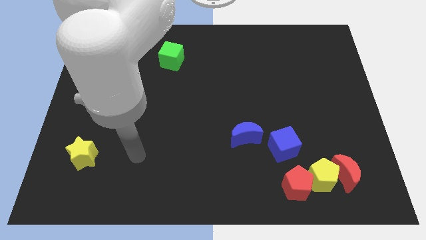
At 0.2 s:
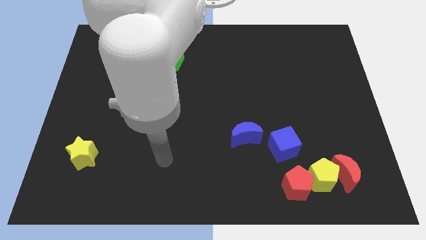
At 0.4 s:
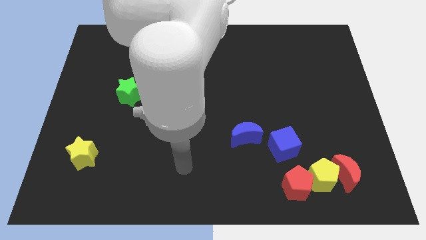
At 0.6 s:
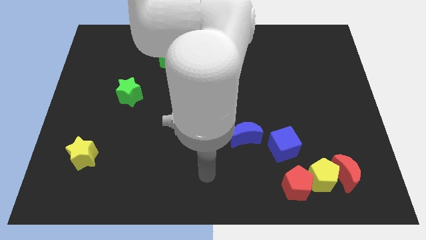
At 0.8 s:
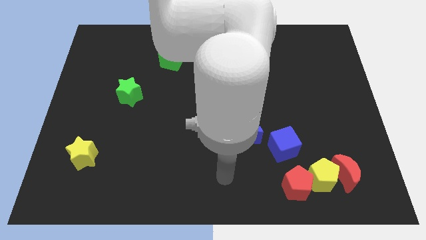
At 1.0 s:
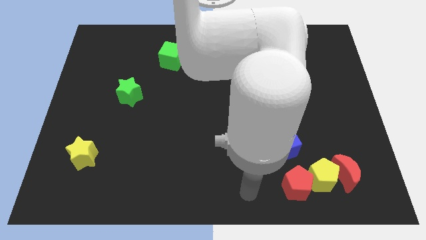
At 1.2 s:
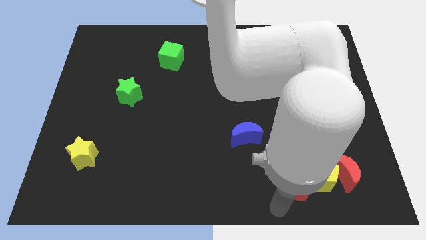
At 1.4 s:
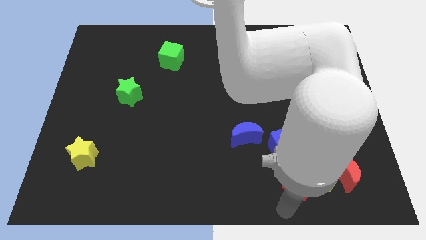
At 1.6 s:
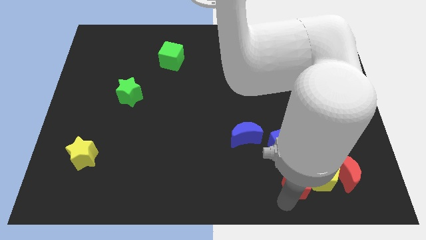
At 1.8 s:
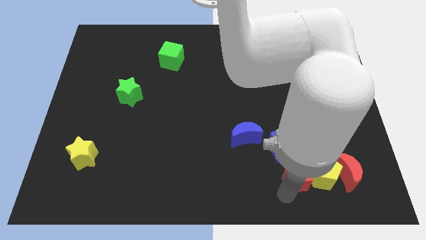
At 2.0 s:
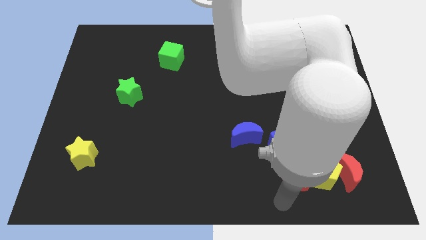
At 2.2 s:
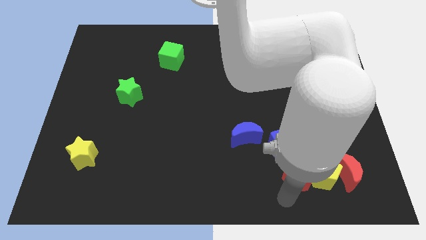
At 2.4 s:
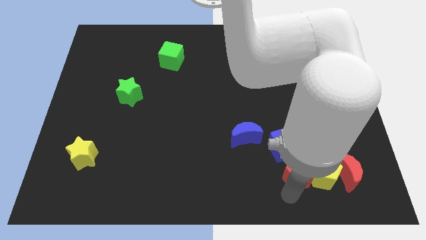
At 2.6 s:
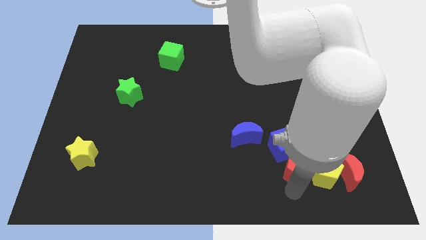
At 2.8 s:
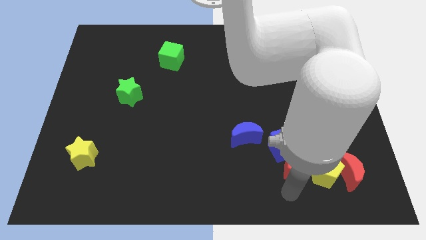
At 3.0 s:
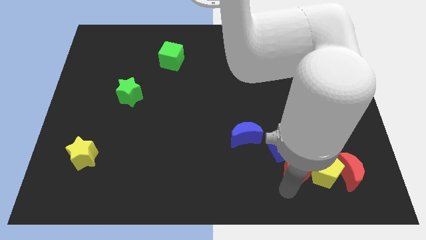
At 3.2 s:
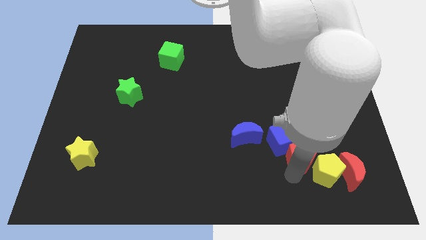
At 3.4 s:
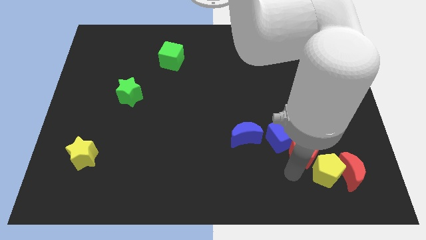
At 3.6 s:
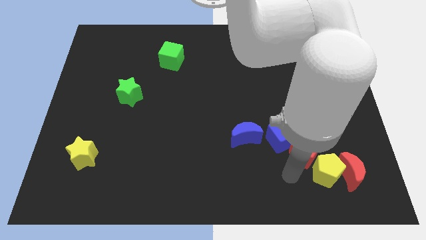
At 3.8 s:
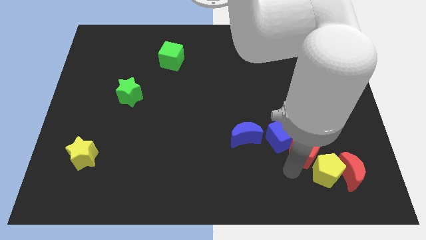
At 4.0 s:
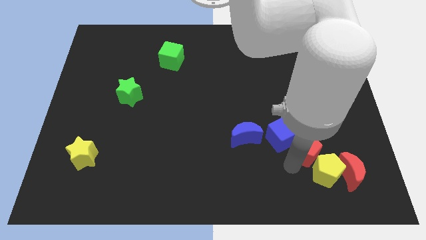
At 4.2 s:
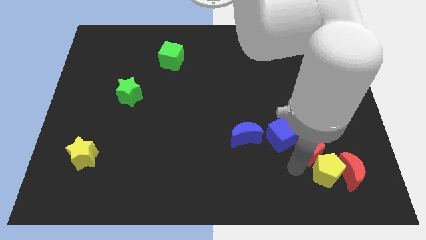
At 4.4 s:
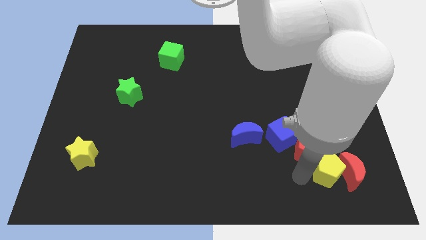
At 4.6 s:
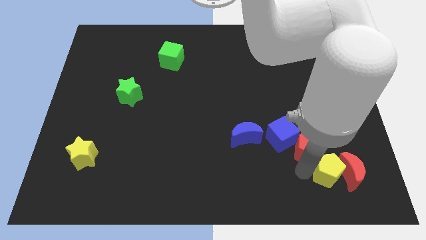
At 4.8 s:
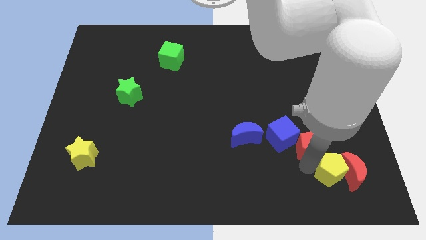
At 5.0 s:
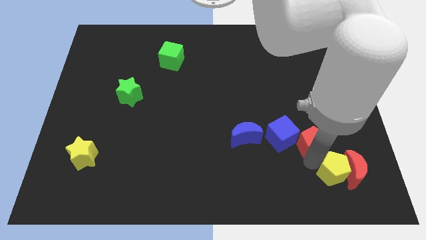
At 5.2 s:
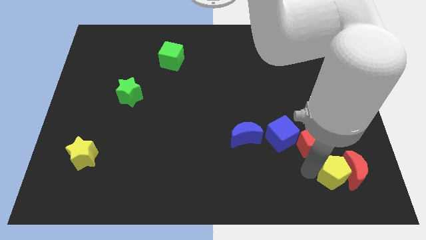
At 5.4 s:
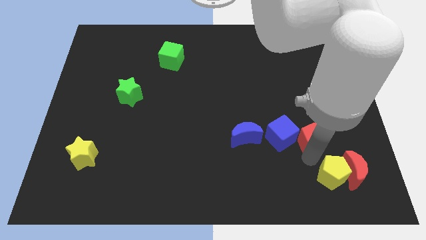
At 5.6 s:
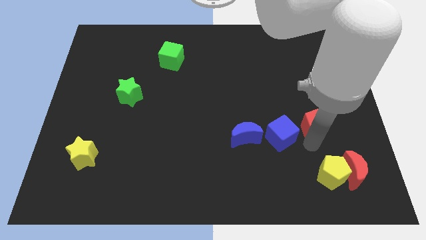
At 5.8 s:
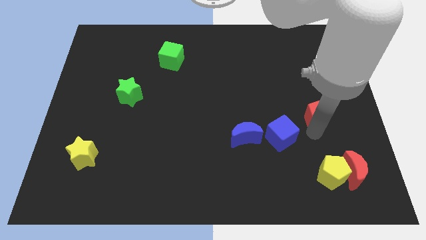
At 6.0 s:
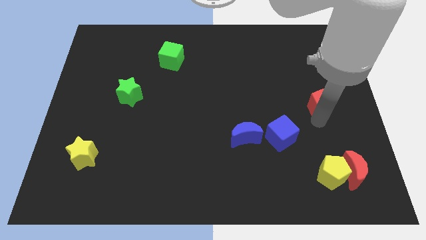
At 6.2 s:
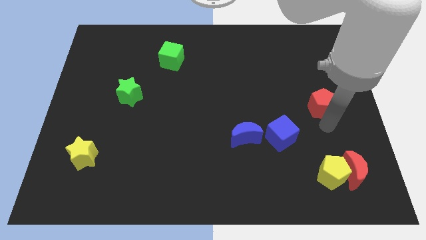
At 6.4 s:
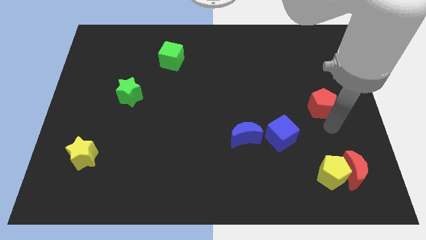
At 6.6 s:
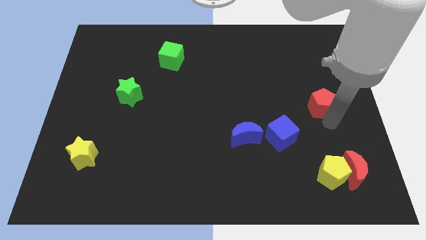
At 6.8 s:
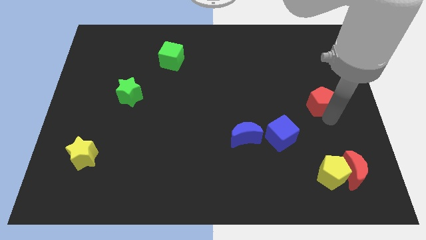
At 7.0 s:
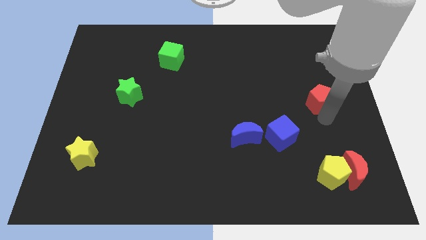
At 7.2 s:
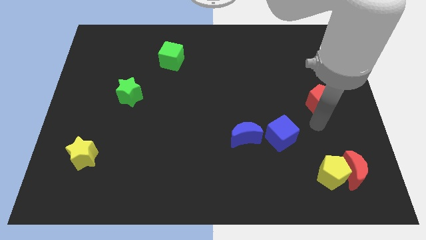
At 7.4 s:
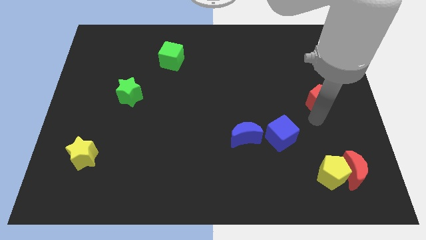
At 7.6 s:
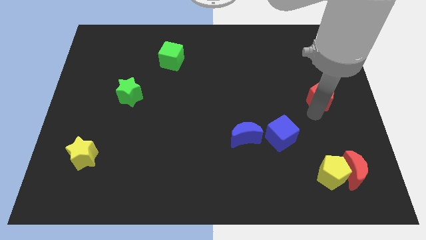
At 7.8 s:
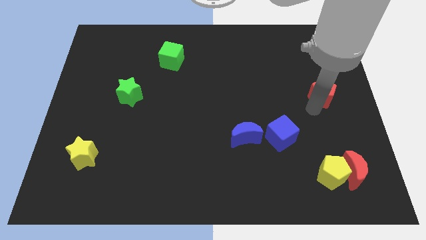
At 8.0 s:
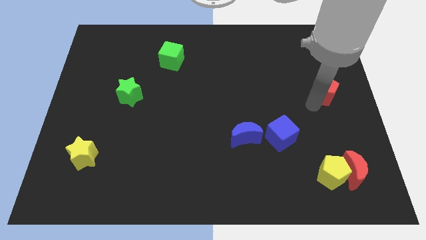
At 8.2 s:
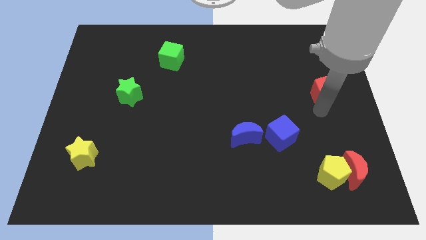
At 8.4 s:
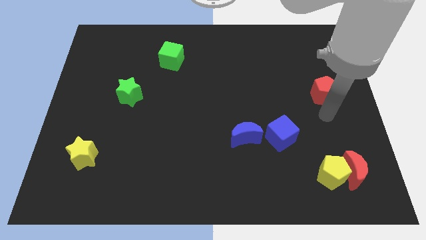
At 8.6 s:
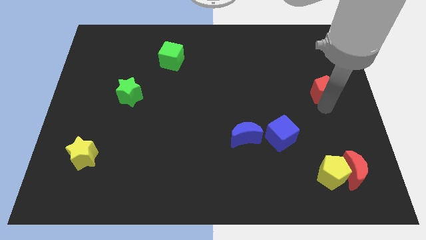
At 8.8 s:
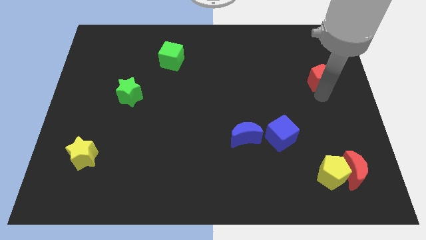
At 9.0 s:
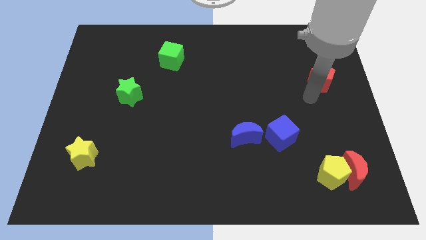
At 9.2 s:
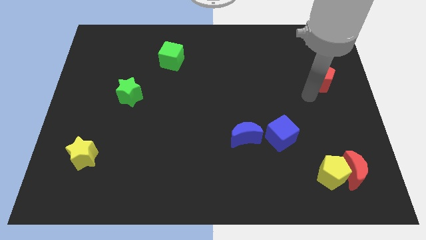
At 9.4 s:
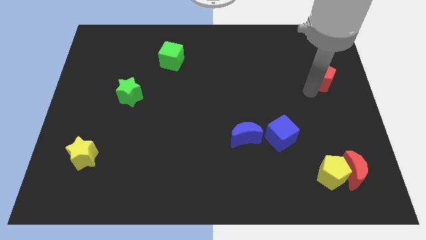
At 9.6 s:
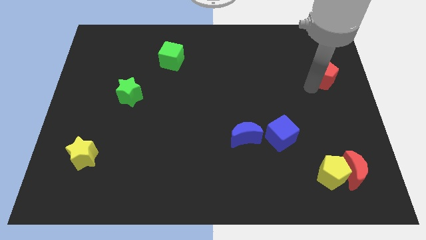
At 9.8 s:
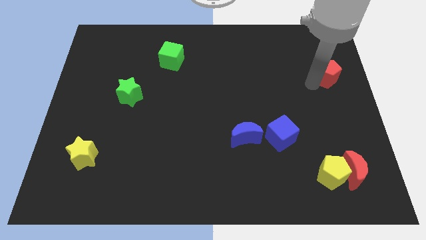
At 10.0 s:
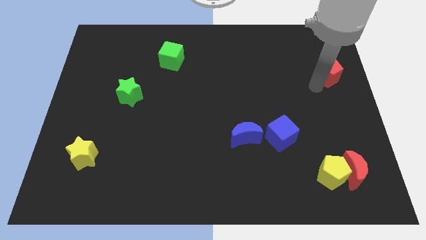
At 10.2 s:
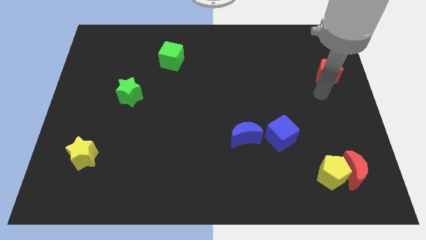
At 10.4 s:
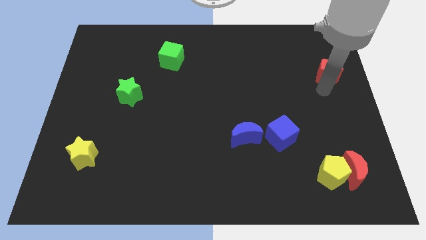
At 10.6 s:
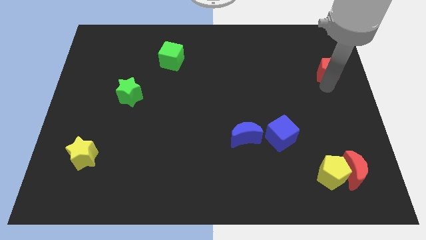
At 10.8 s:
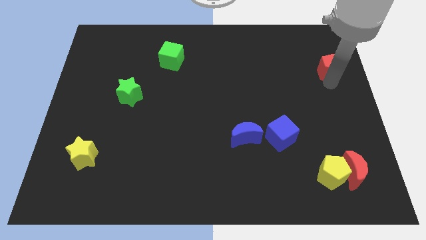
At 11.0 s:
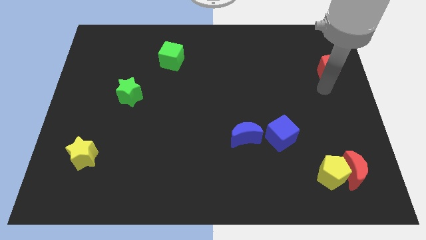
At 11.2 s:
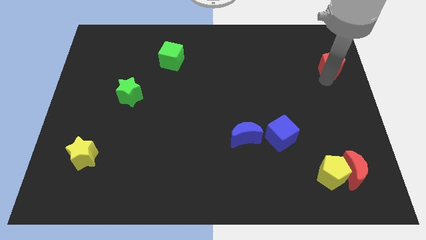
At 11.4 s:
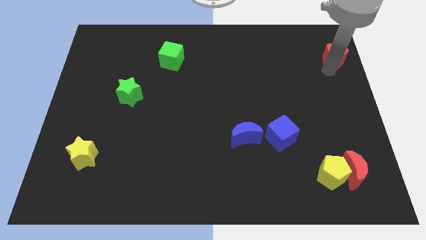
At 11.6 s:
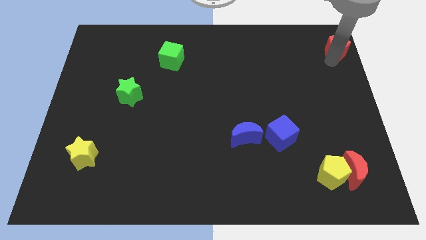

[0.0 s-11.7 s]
move the red pentagon to the top right corner
